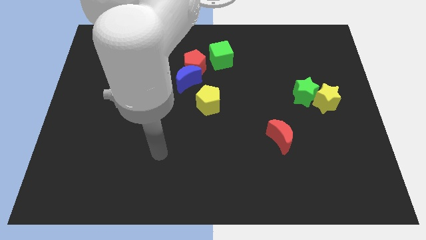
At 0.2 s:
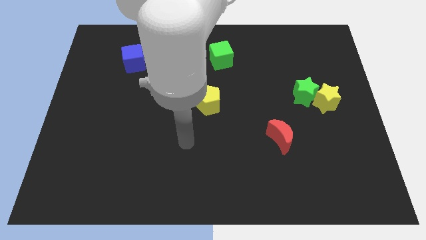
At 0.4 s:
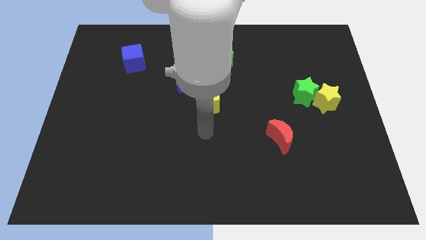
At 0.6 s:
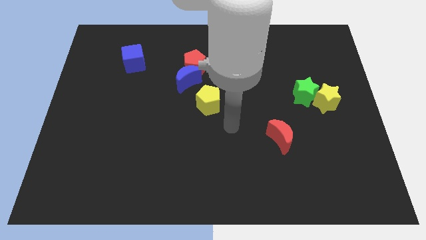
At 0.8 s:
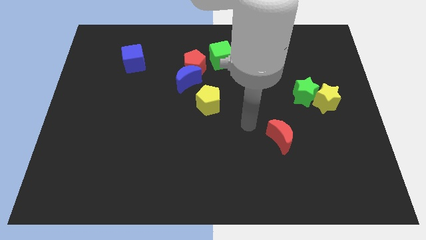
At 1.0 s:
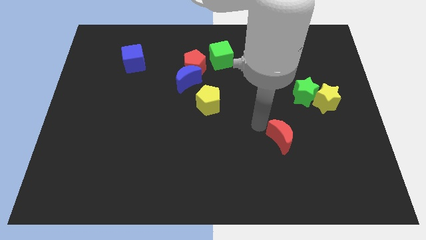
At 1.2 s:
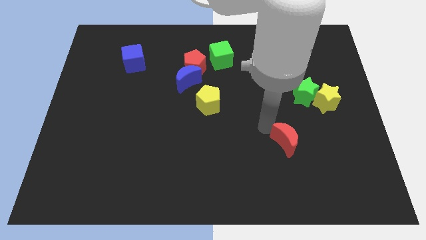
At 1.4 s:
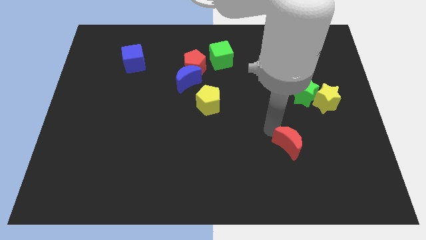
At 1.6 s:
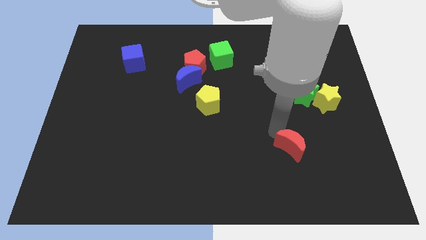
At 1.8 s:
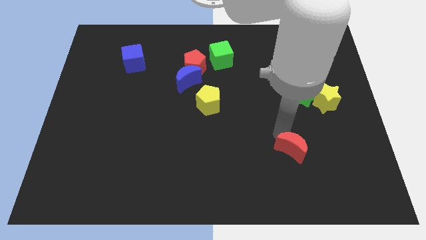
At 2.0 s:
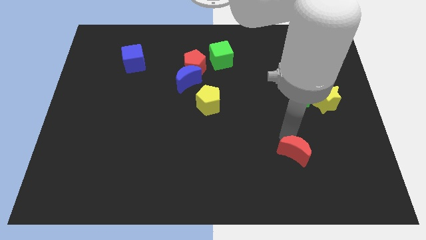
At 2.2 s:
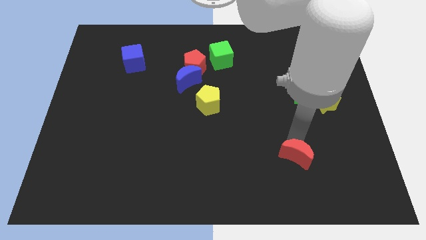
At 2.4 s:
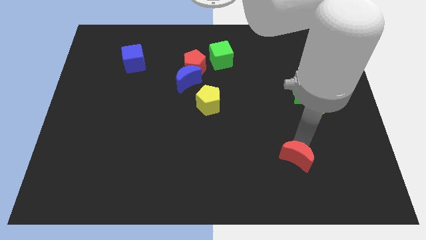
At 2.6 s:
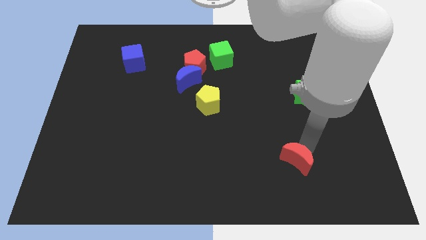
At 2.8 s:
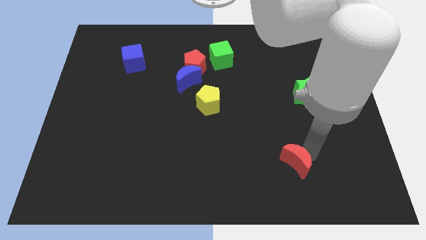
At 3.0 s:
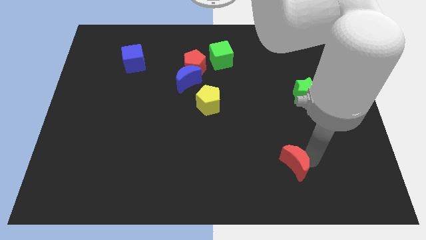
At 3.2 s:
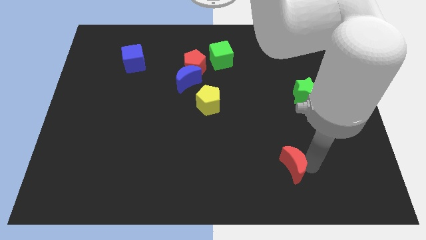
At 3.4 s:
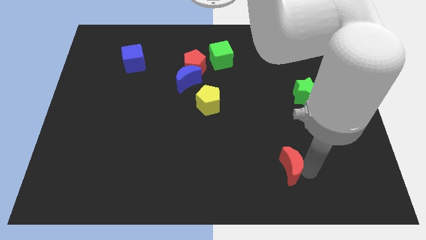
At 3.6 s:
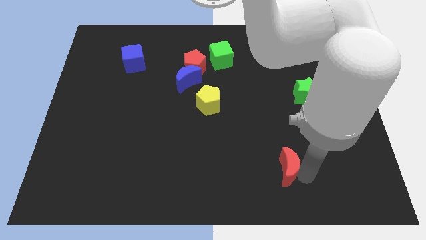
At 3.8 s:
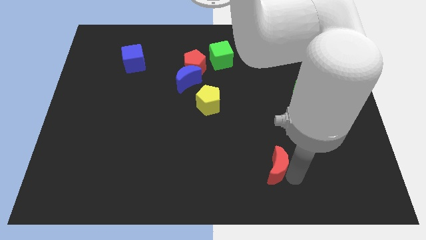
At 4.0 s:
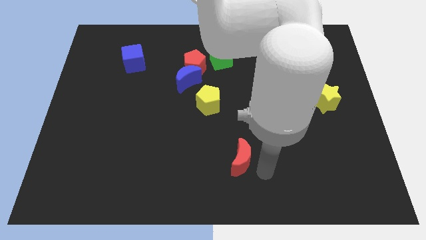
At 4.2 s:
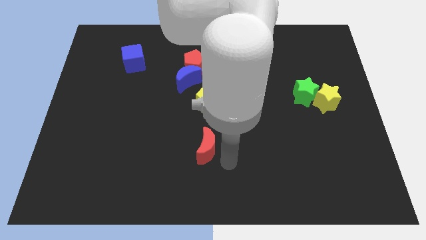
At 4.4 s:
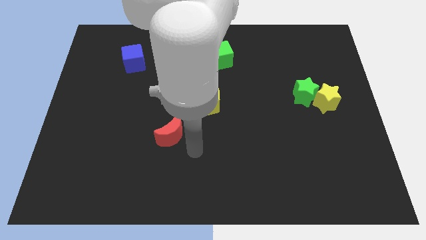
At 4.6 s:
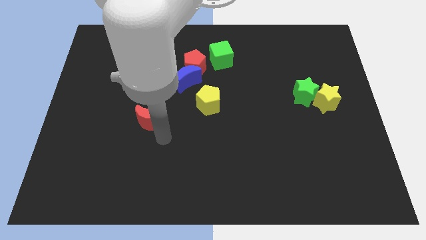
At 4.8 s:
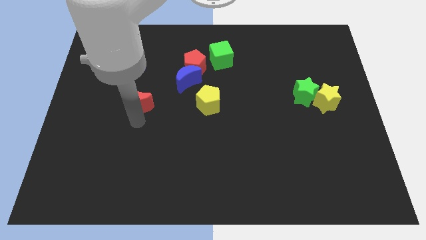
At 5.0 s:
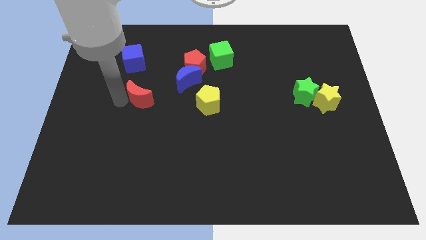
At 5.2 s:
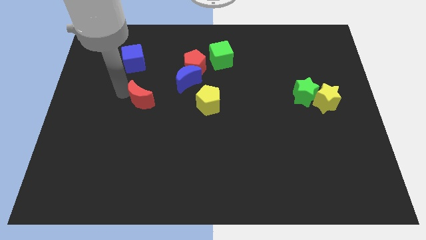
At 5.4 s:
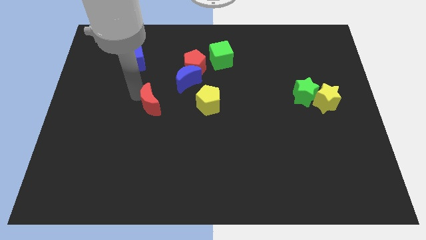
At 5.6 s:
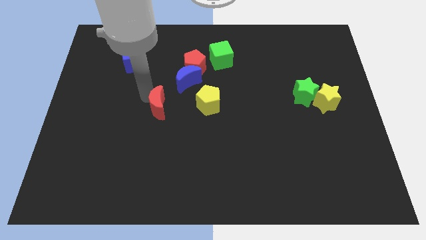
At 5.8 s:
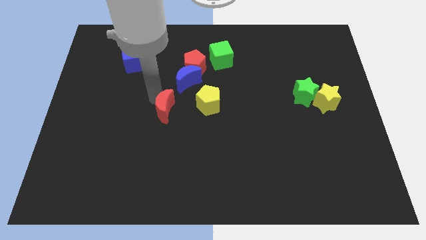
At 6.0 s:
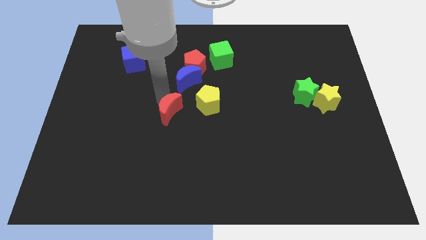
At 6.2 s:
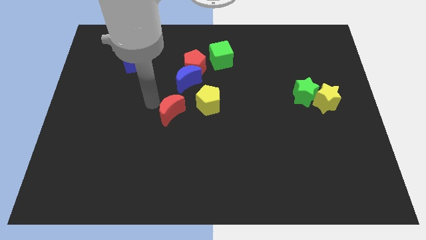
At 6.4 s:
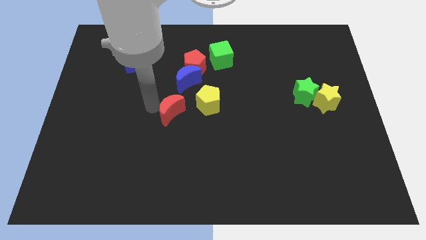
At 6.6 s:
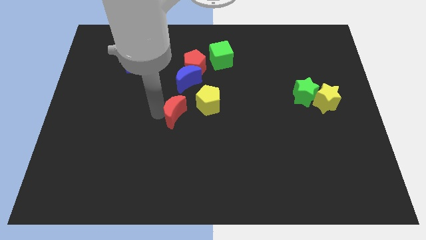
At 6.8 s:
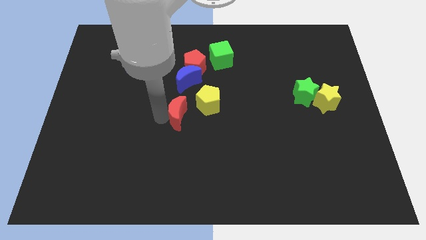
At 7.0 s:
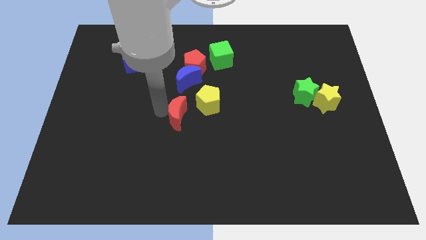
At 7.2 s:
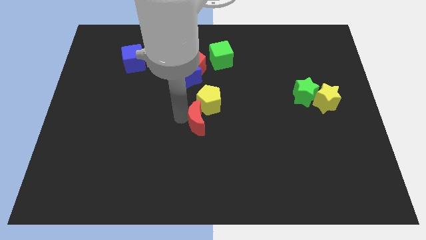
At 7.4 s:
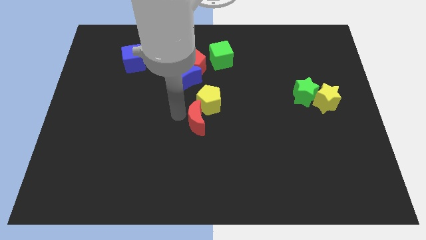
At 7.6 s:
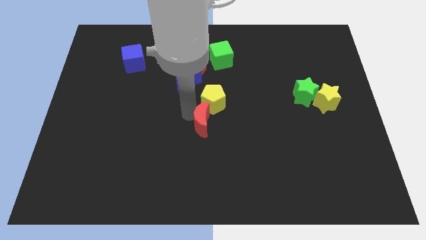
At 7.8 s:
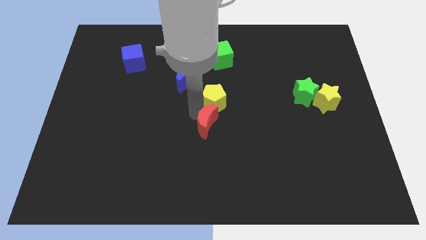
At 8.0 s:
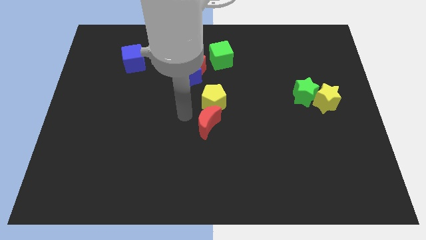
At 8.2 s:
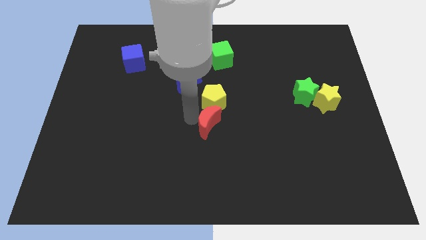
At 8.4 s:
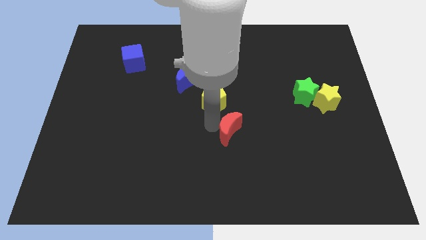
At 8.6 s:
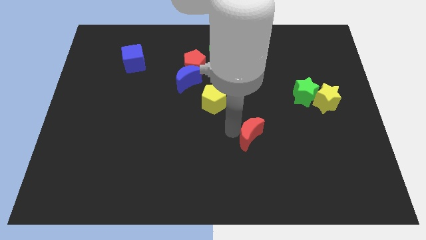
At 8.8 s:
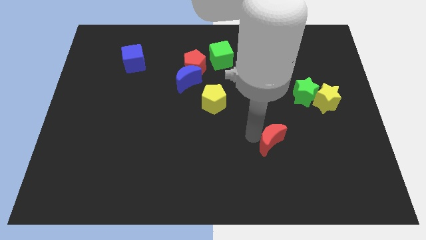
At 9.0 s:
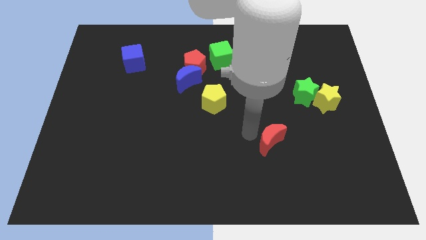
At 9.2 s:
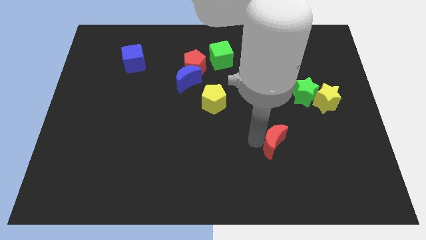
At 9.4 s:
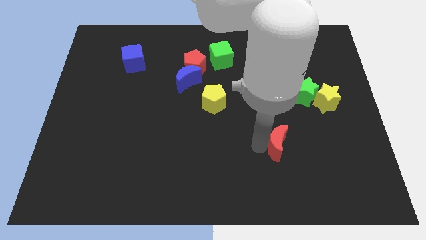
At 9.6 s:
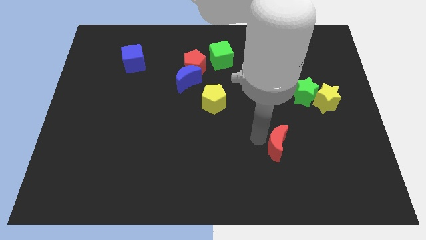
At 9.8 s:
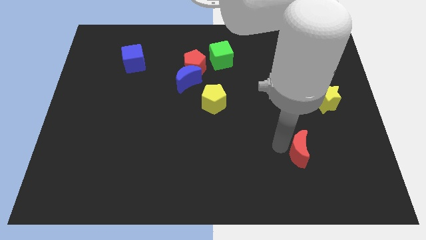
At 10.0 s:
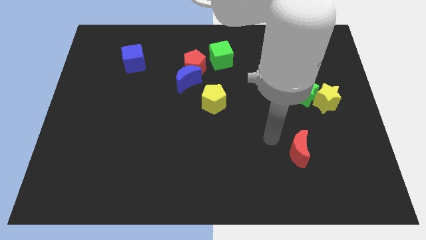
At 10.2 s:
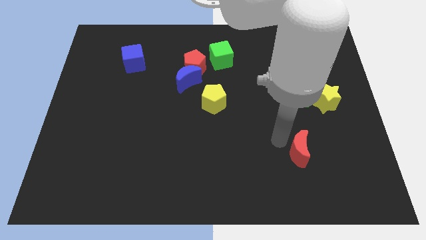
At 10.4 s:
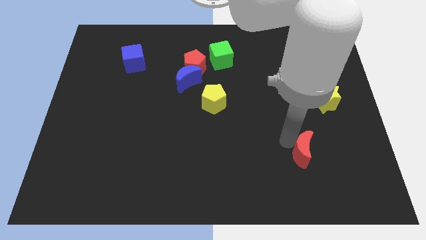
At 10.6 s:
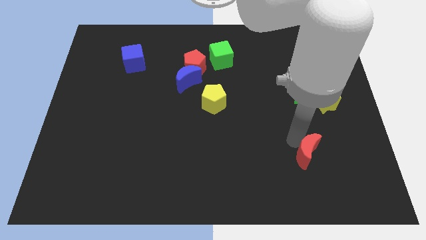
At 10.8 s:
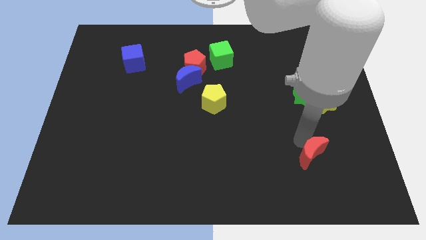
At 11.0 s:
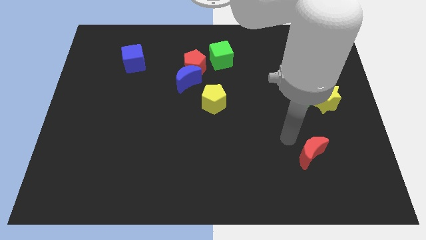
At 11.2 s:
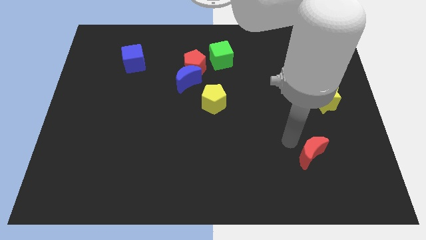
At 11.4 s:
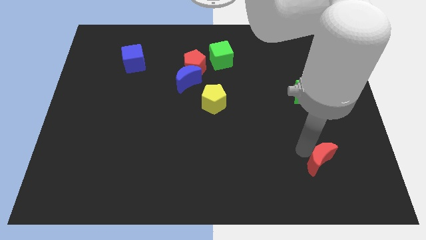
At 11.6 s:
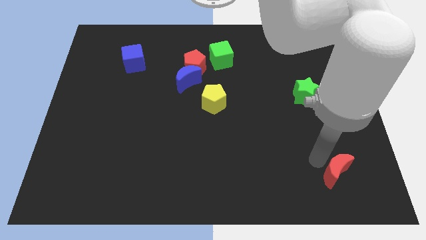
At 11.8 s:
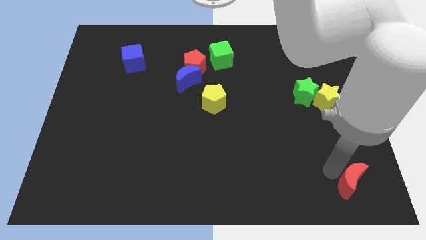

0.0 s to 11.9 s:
move the red moon to the bottom right corner
